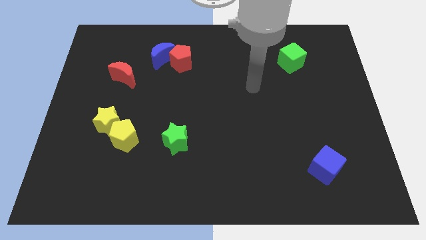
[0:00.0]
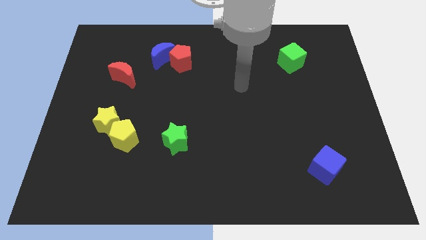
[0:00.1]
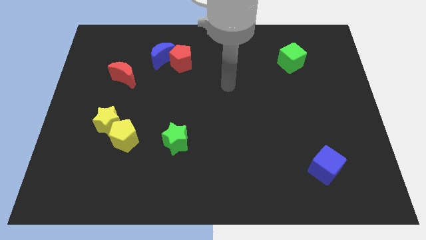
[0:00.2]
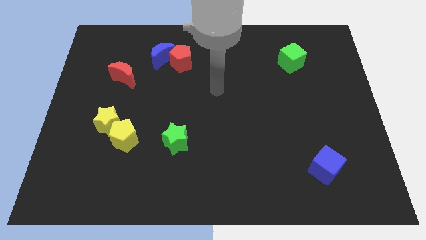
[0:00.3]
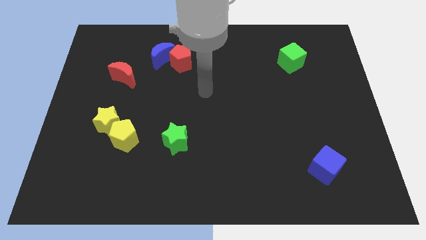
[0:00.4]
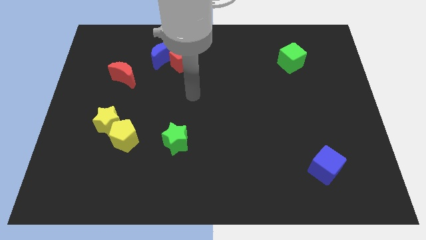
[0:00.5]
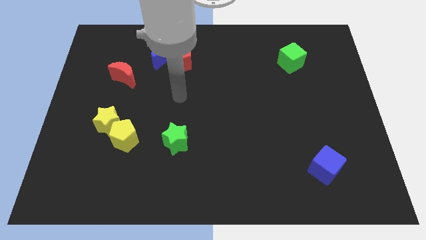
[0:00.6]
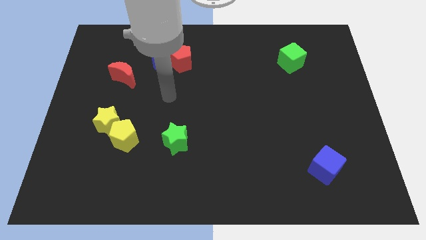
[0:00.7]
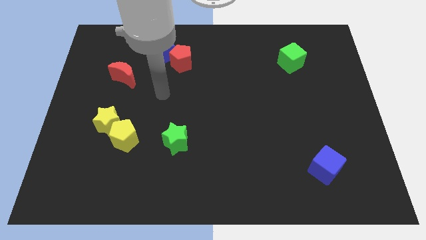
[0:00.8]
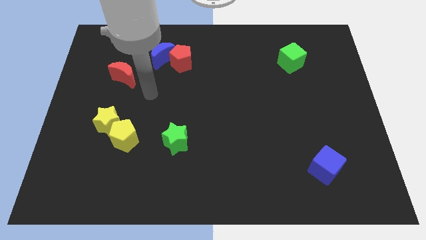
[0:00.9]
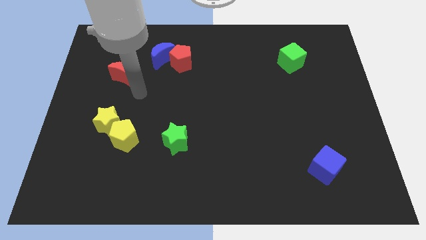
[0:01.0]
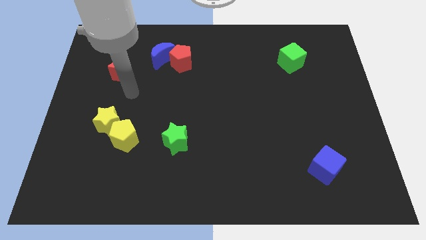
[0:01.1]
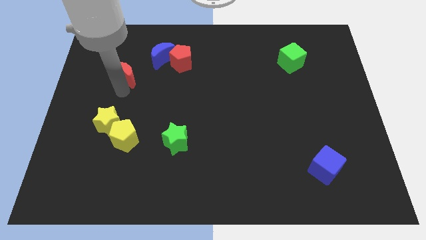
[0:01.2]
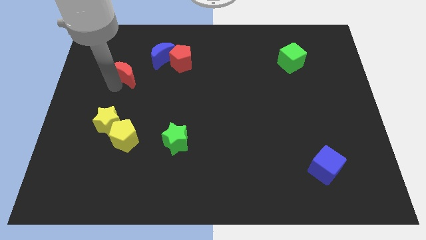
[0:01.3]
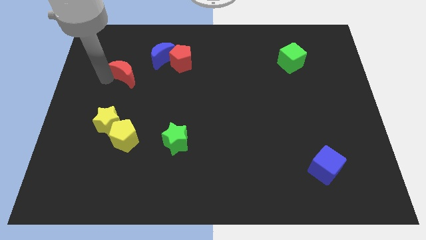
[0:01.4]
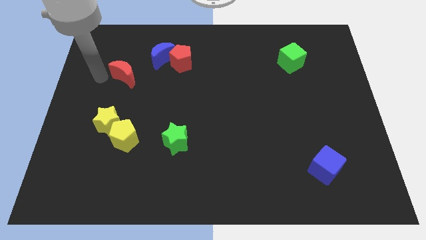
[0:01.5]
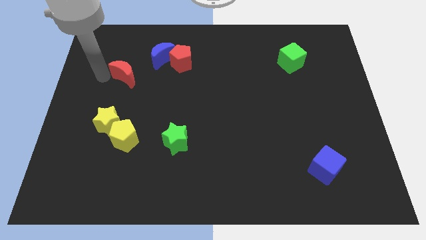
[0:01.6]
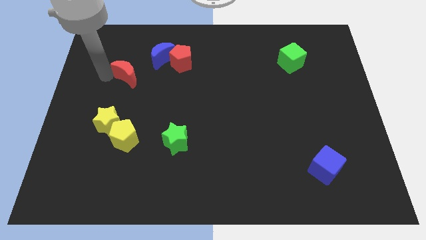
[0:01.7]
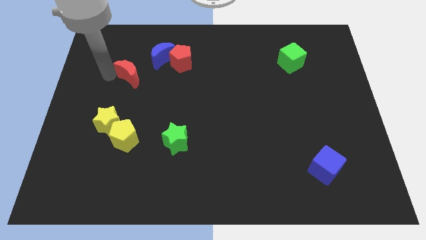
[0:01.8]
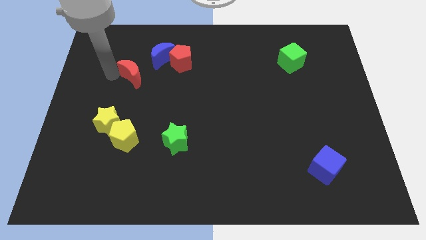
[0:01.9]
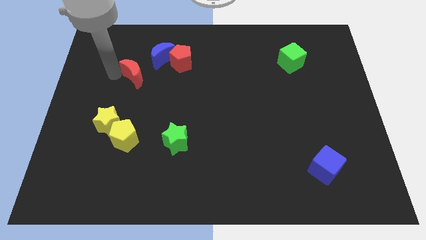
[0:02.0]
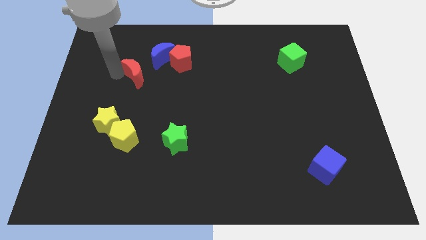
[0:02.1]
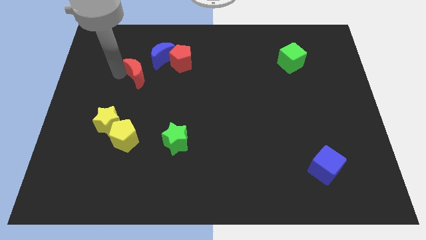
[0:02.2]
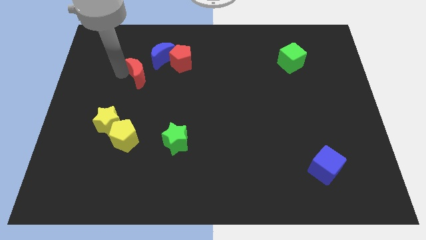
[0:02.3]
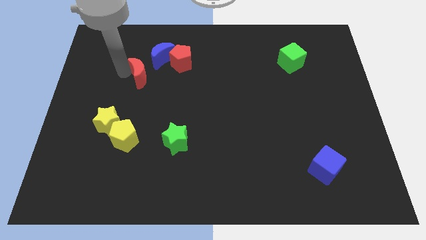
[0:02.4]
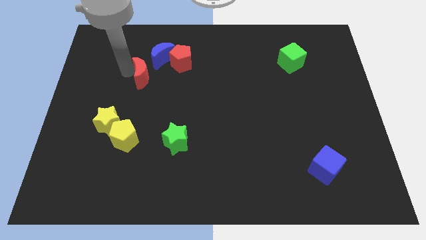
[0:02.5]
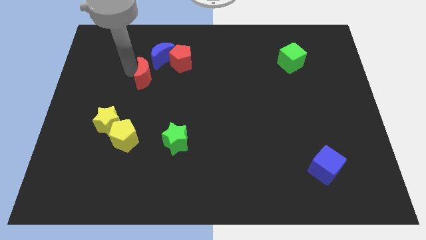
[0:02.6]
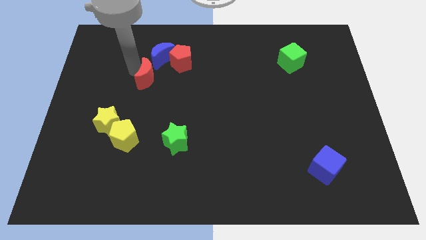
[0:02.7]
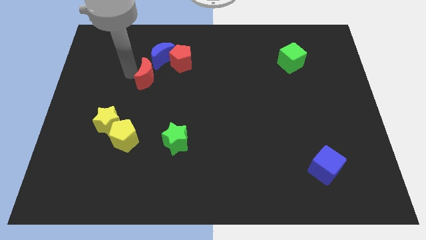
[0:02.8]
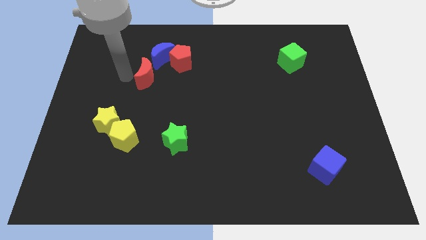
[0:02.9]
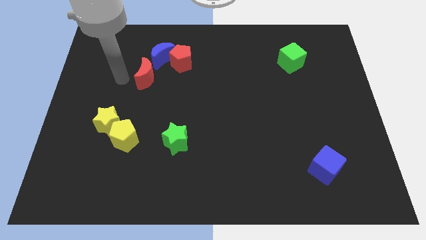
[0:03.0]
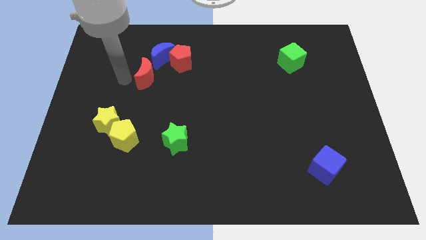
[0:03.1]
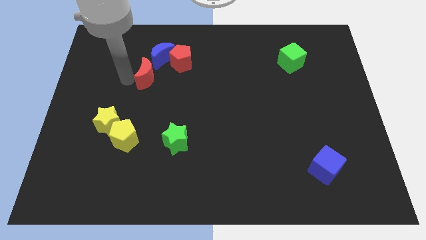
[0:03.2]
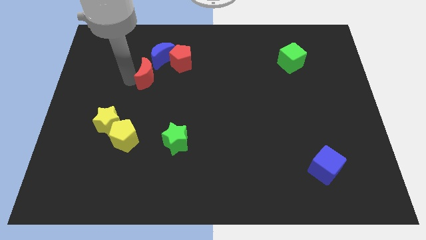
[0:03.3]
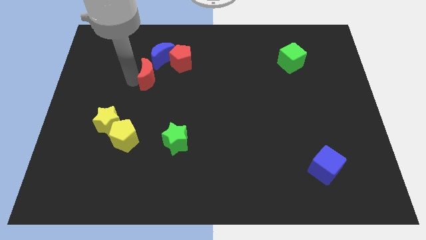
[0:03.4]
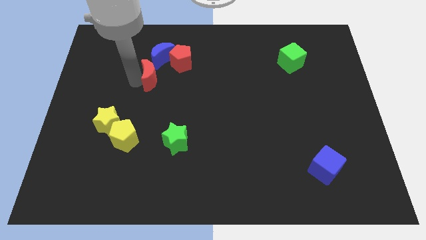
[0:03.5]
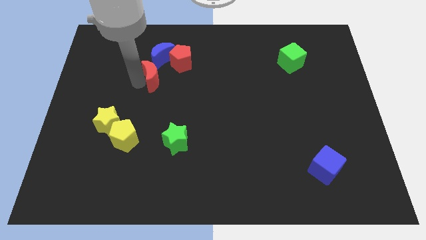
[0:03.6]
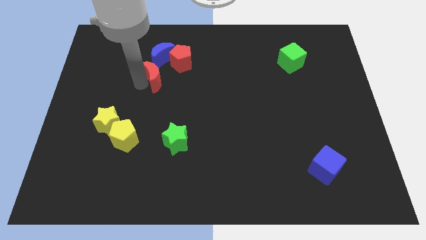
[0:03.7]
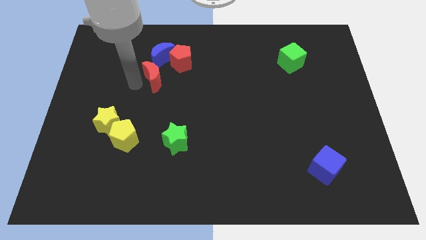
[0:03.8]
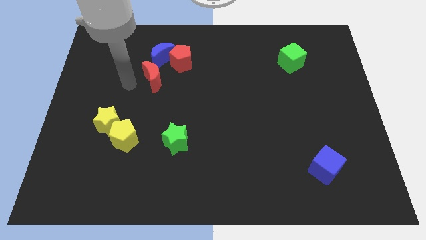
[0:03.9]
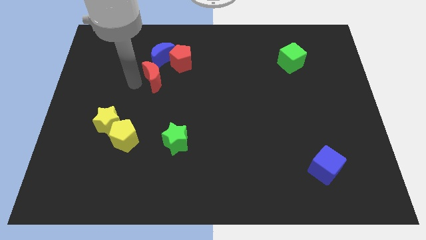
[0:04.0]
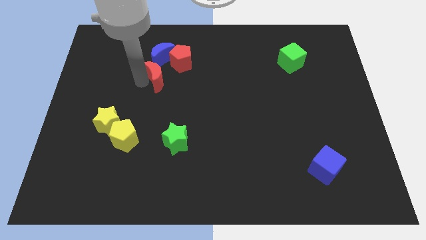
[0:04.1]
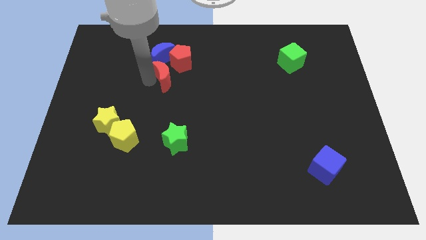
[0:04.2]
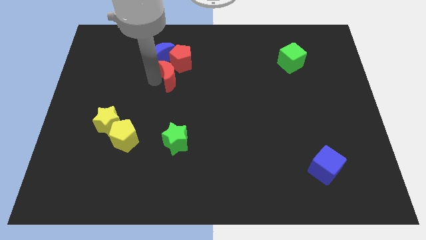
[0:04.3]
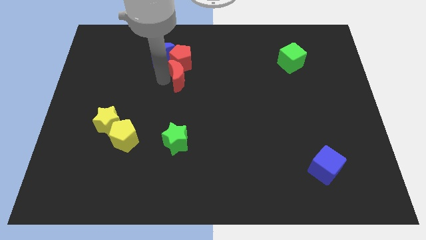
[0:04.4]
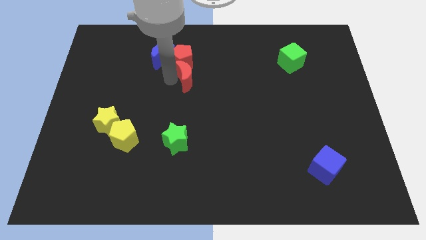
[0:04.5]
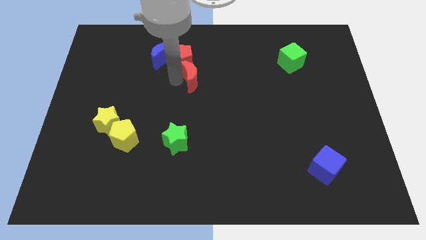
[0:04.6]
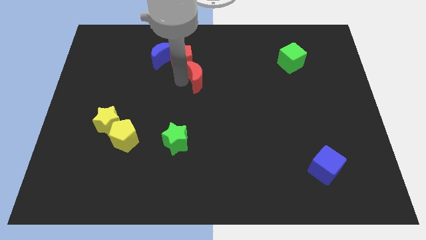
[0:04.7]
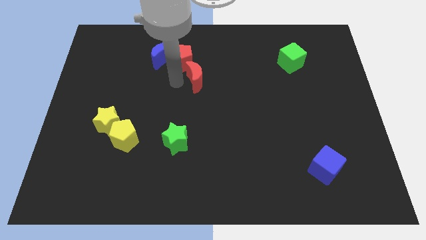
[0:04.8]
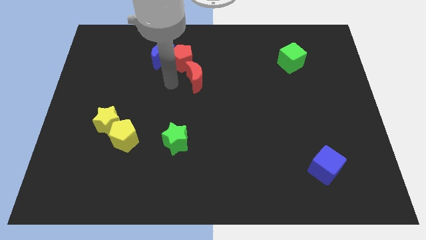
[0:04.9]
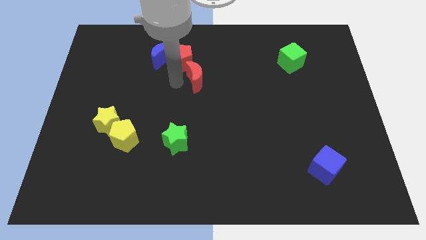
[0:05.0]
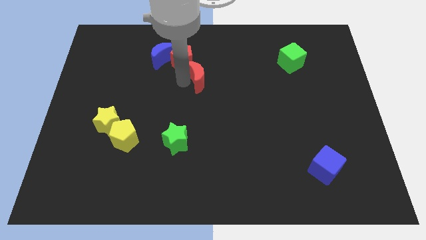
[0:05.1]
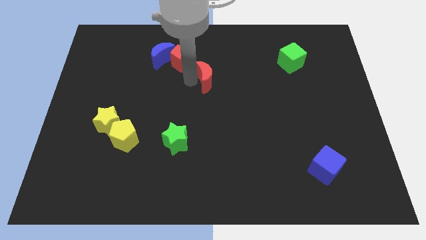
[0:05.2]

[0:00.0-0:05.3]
move the red moon to the right

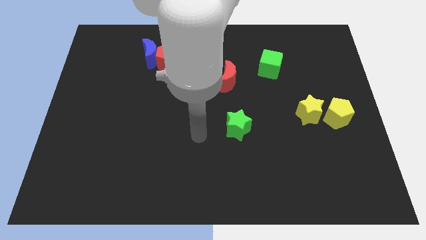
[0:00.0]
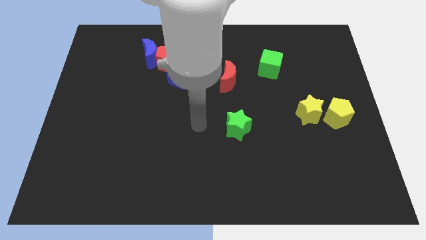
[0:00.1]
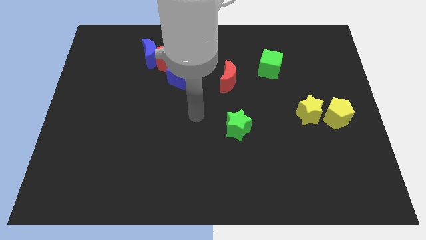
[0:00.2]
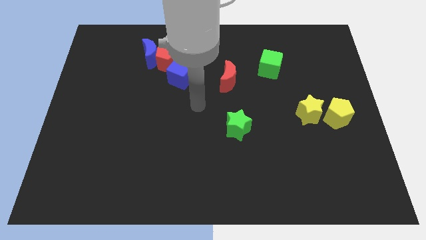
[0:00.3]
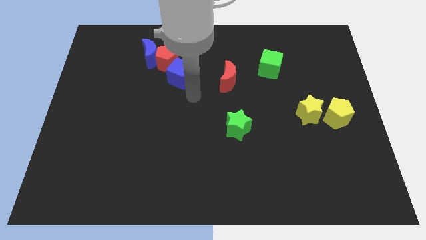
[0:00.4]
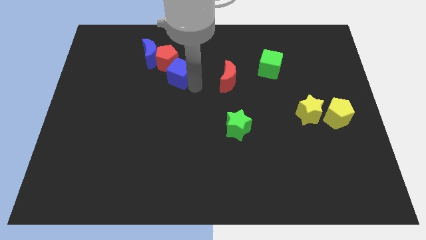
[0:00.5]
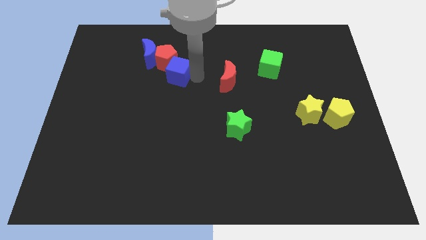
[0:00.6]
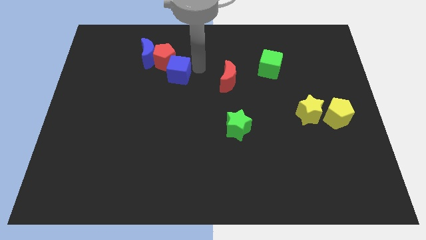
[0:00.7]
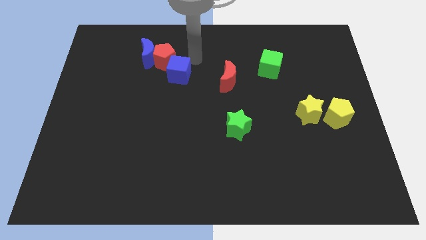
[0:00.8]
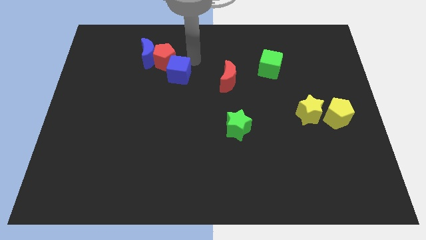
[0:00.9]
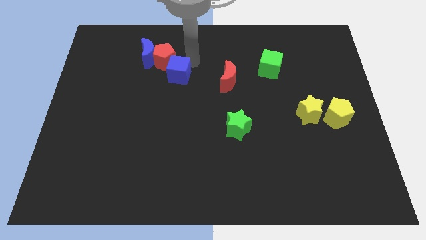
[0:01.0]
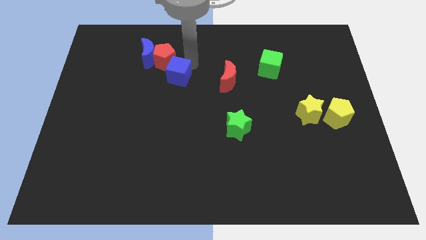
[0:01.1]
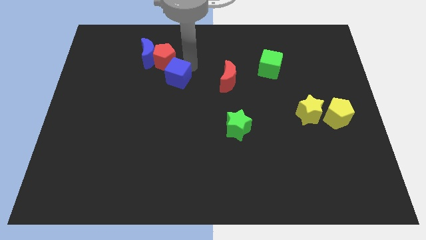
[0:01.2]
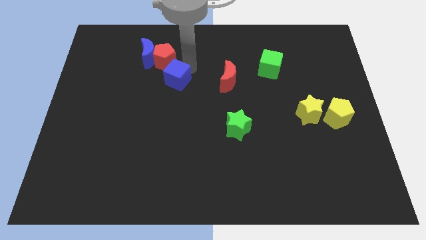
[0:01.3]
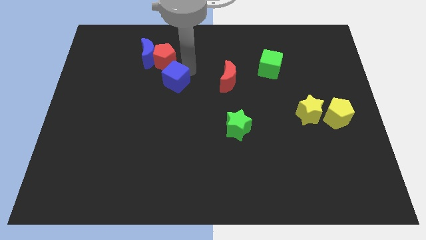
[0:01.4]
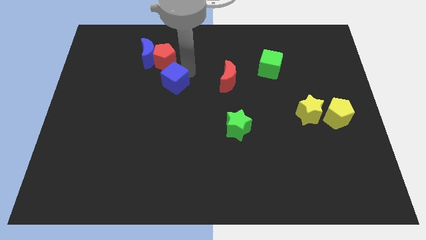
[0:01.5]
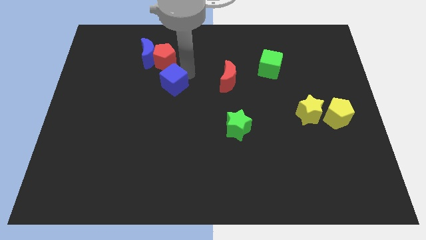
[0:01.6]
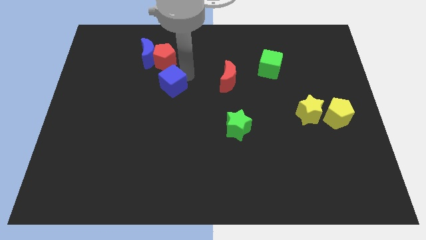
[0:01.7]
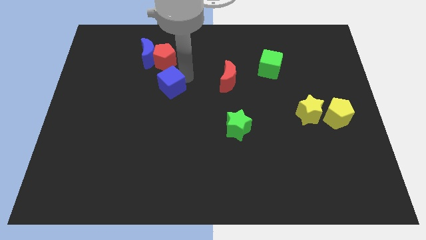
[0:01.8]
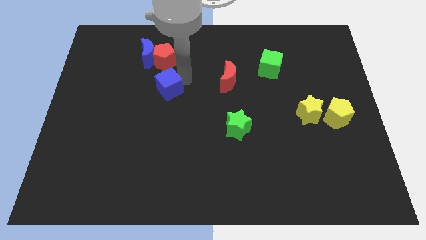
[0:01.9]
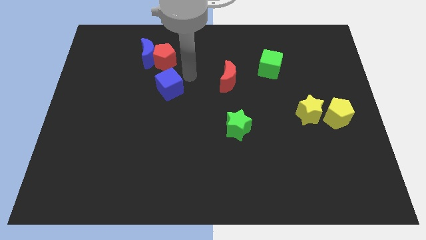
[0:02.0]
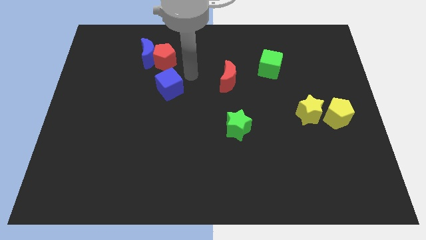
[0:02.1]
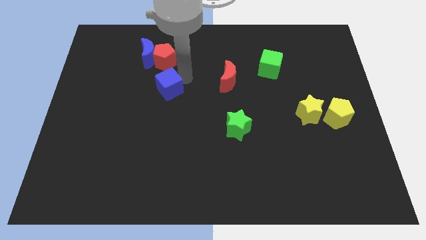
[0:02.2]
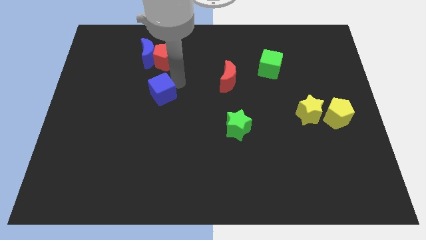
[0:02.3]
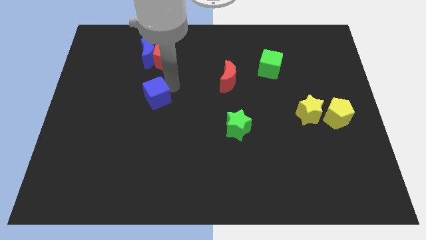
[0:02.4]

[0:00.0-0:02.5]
slide the blue cube a little bit diagonally downwards and to the left
